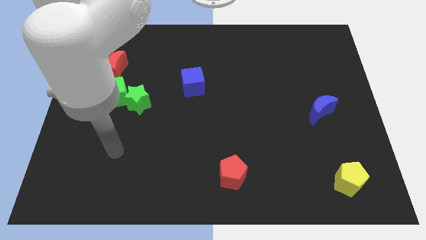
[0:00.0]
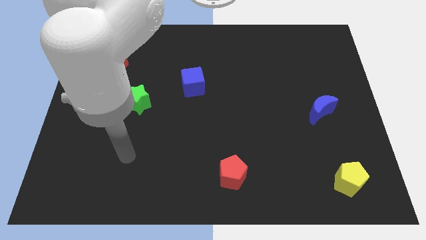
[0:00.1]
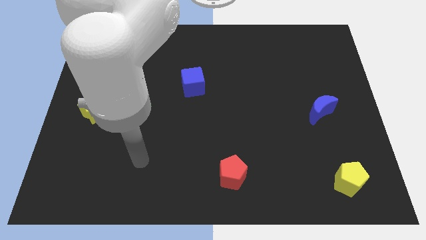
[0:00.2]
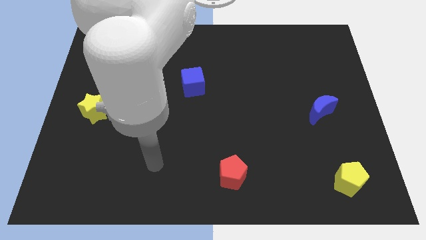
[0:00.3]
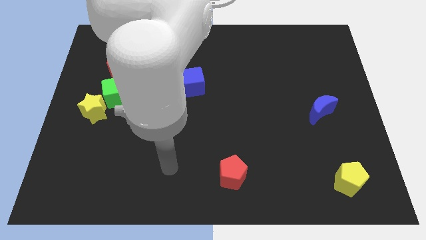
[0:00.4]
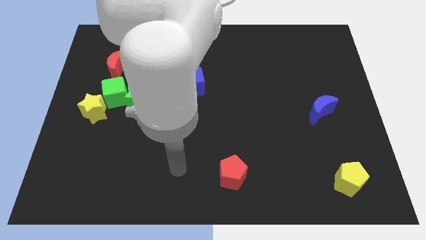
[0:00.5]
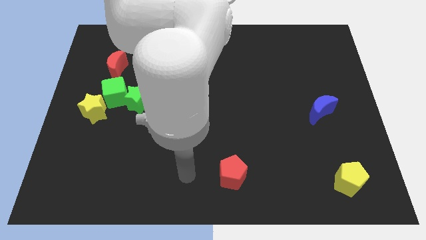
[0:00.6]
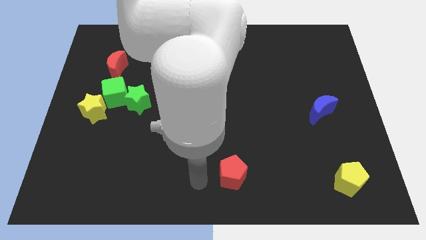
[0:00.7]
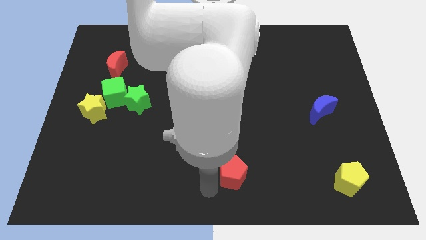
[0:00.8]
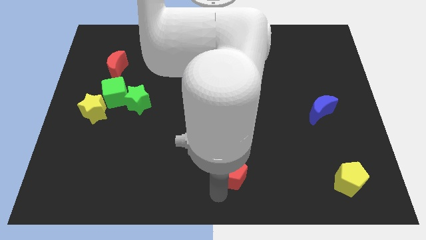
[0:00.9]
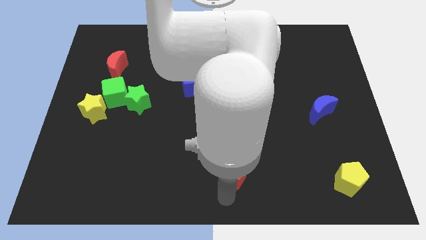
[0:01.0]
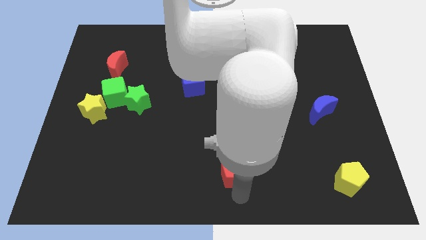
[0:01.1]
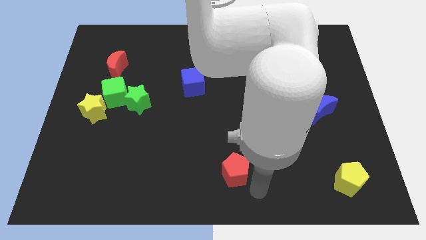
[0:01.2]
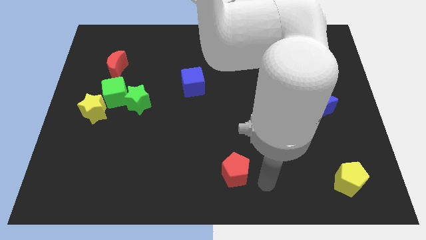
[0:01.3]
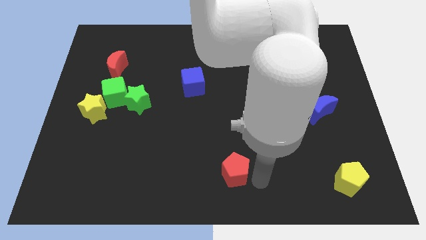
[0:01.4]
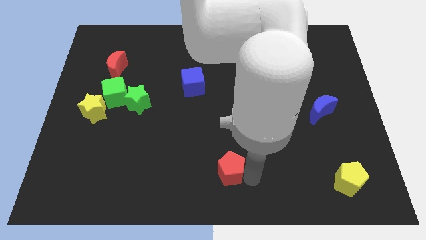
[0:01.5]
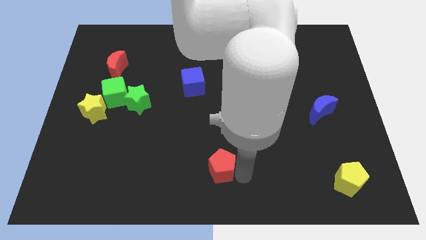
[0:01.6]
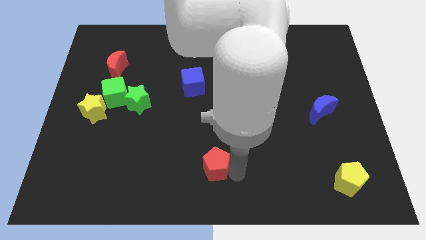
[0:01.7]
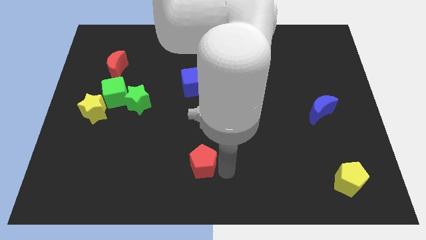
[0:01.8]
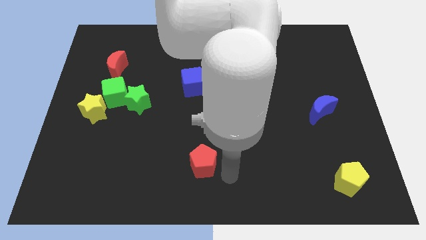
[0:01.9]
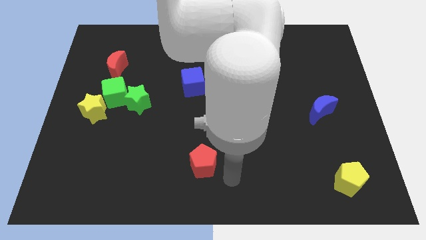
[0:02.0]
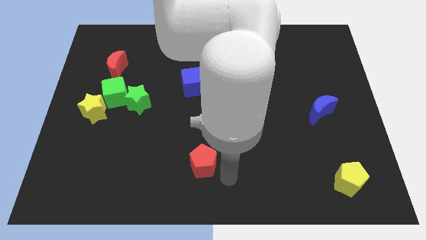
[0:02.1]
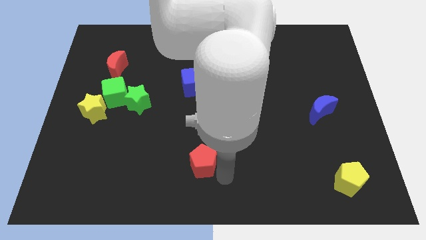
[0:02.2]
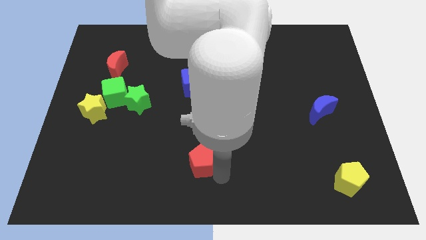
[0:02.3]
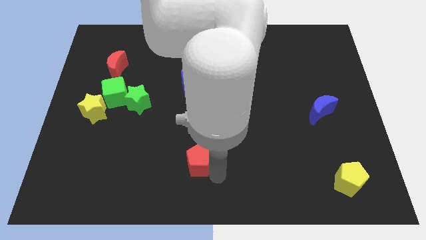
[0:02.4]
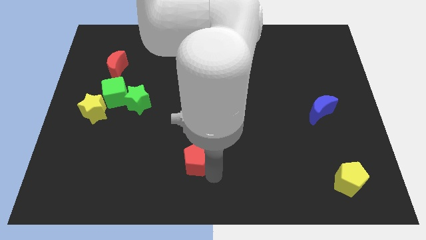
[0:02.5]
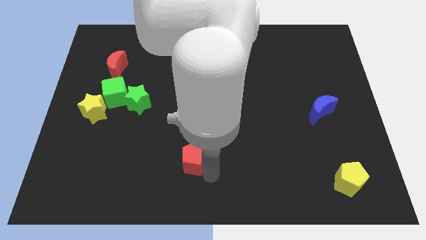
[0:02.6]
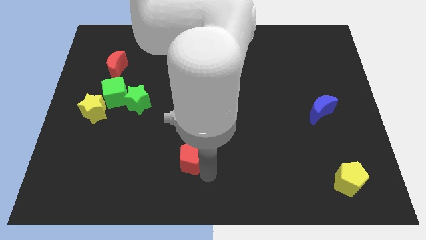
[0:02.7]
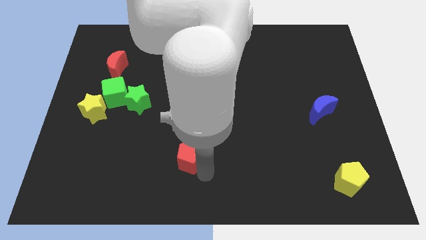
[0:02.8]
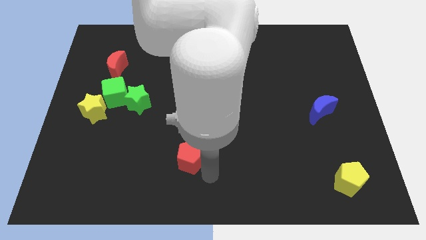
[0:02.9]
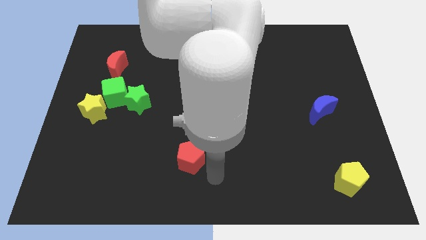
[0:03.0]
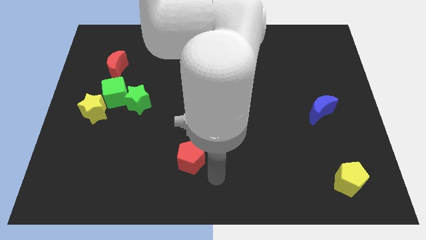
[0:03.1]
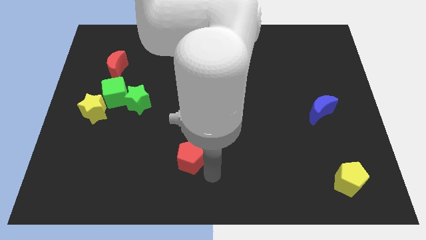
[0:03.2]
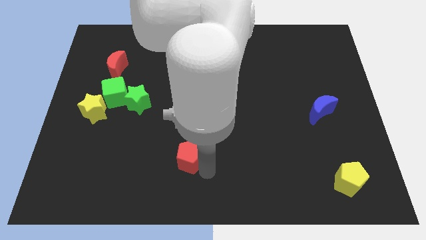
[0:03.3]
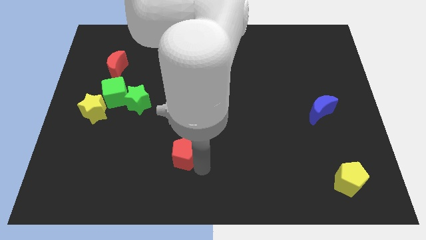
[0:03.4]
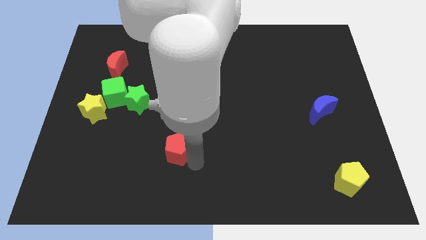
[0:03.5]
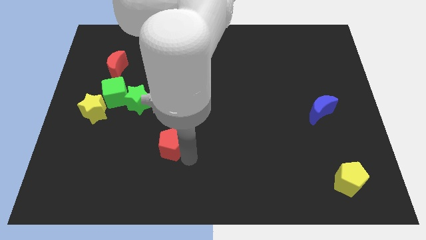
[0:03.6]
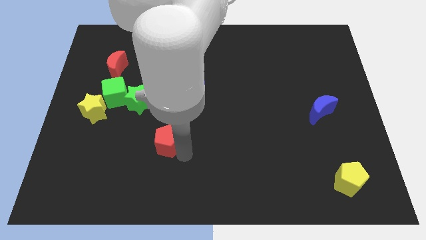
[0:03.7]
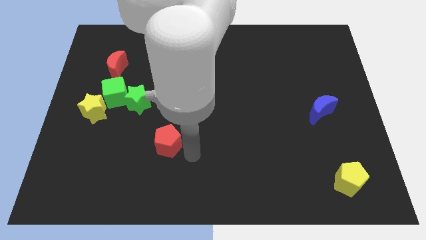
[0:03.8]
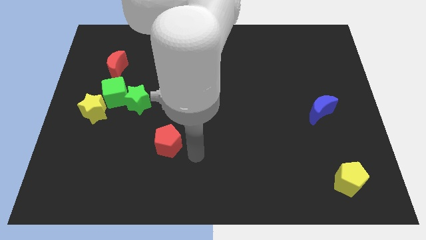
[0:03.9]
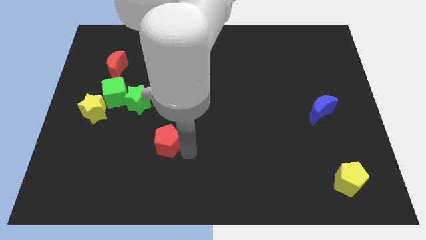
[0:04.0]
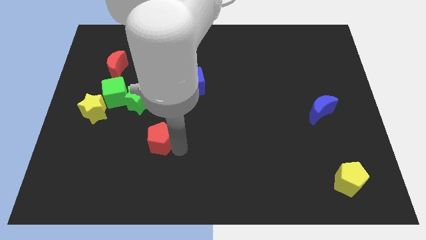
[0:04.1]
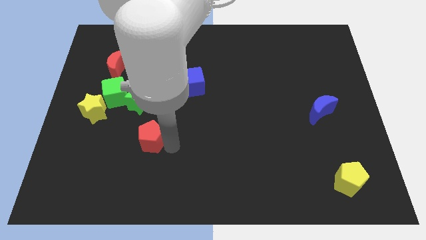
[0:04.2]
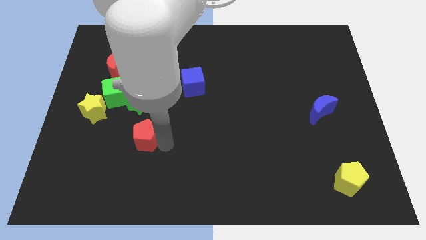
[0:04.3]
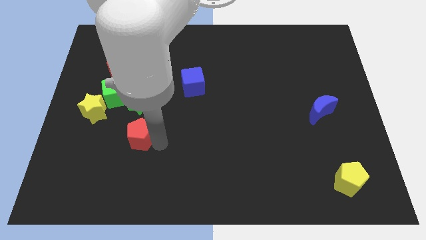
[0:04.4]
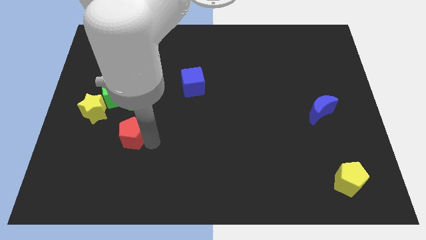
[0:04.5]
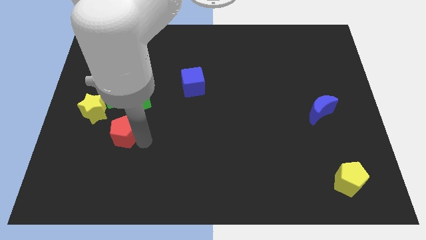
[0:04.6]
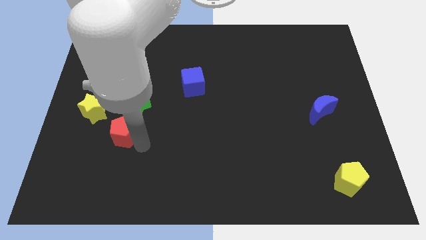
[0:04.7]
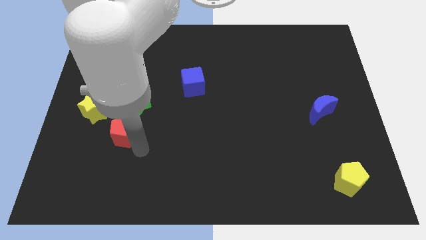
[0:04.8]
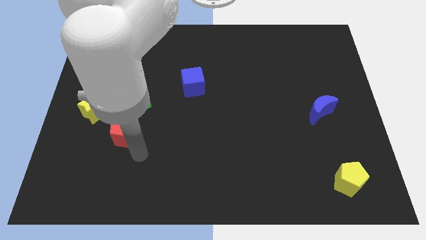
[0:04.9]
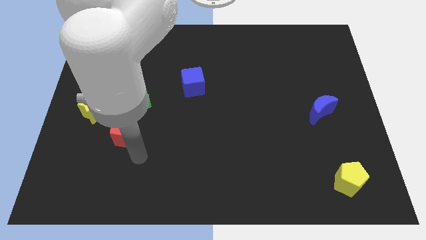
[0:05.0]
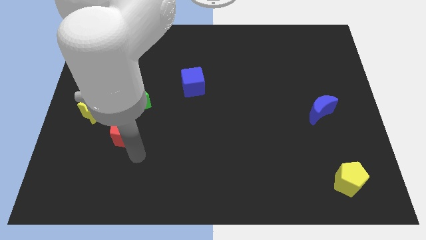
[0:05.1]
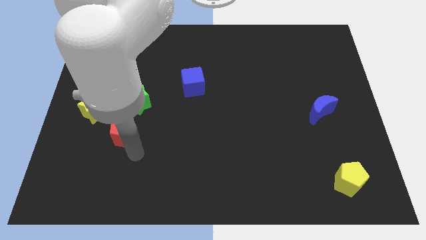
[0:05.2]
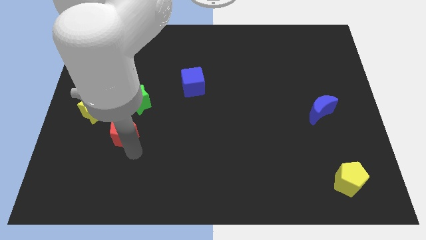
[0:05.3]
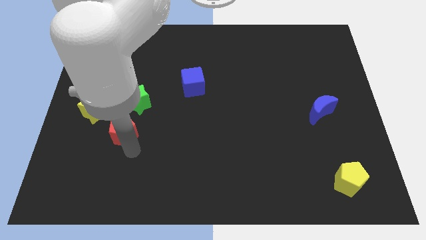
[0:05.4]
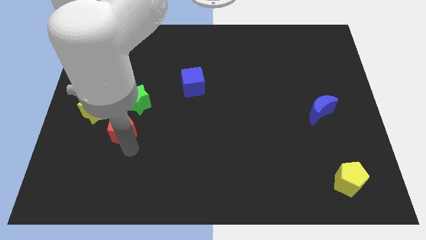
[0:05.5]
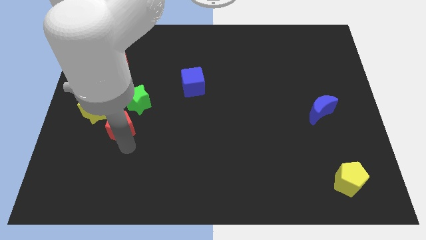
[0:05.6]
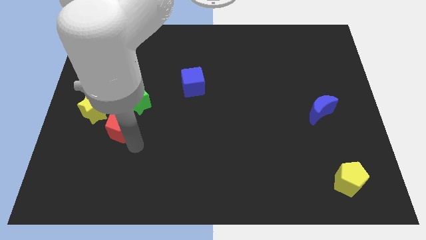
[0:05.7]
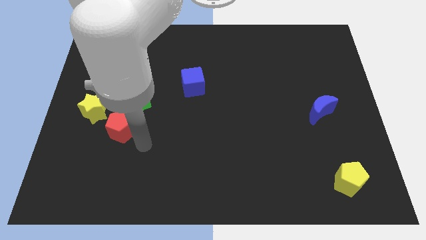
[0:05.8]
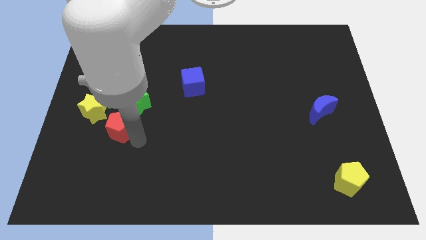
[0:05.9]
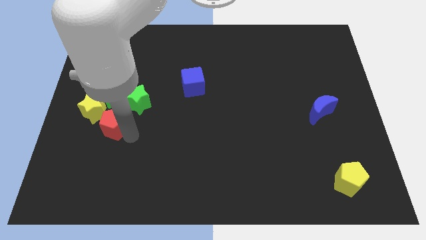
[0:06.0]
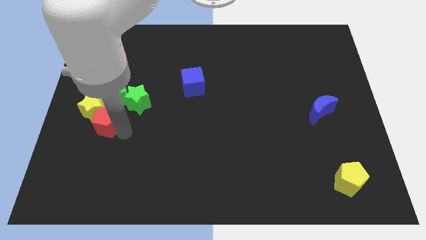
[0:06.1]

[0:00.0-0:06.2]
push the red pentagon close to the yellow star

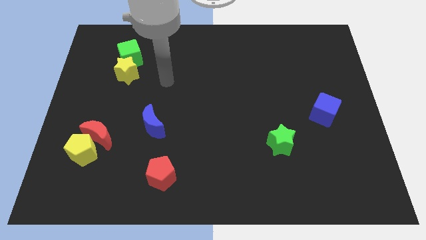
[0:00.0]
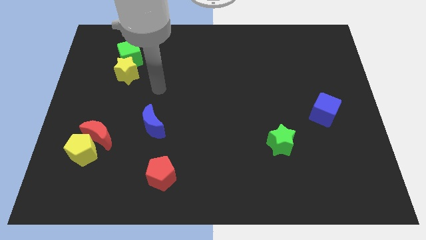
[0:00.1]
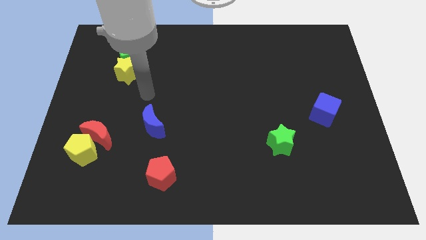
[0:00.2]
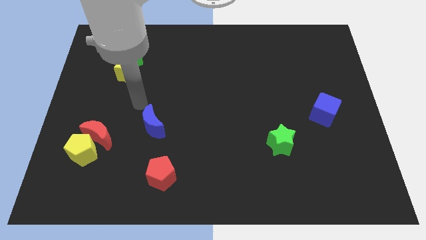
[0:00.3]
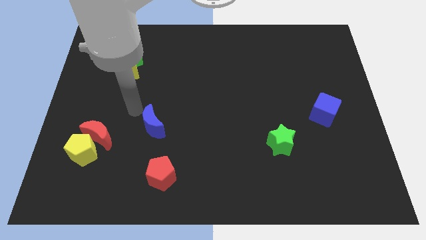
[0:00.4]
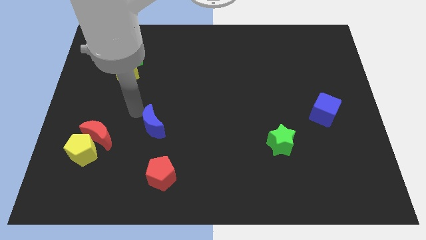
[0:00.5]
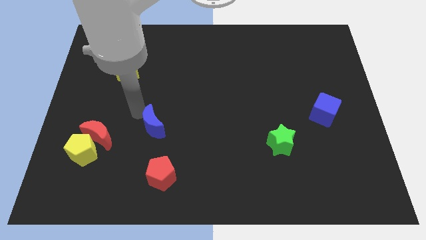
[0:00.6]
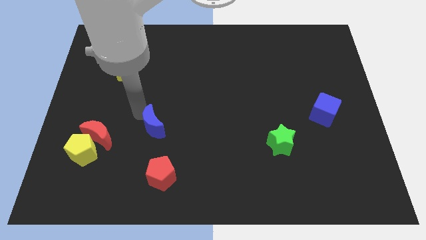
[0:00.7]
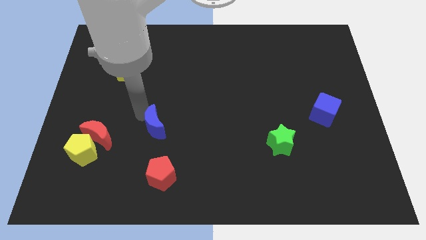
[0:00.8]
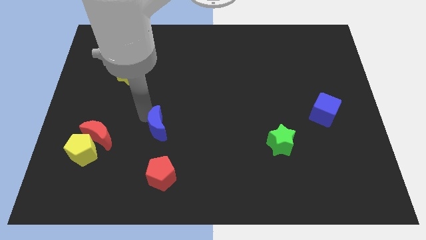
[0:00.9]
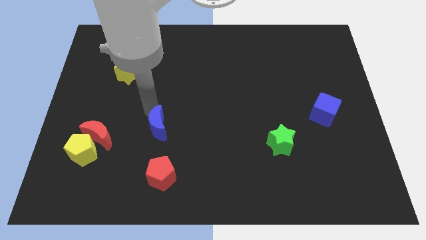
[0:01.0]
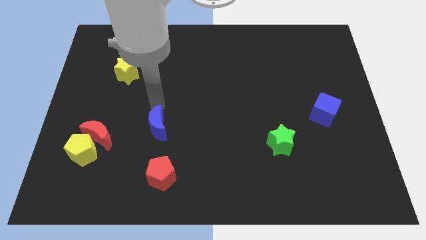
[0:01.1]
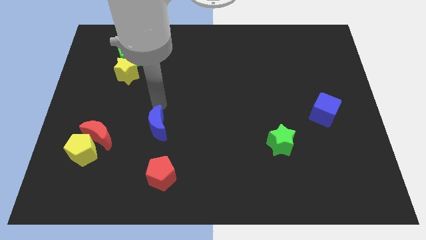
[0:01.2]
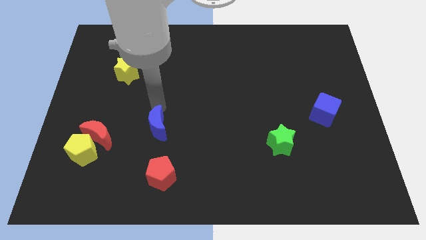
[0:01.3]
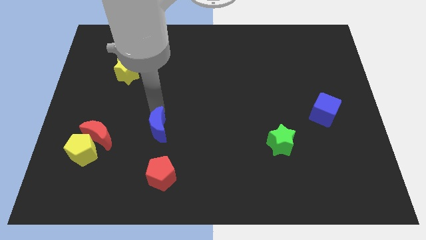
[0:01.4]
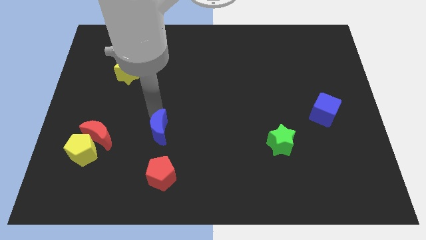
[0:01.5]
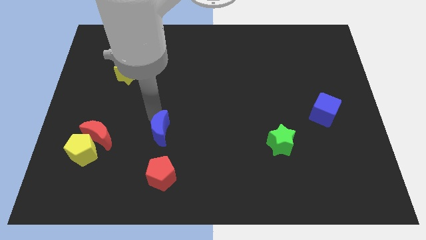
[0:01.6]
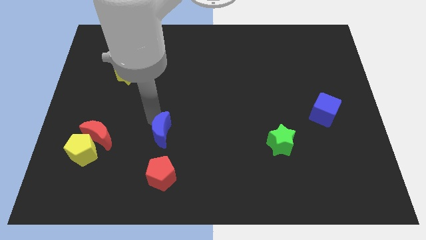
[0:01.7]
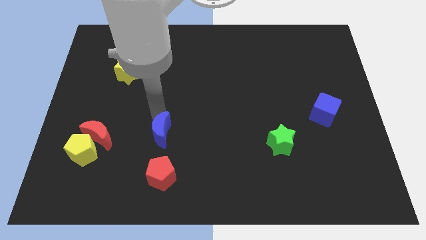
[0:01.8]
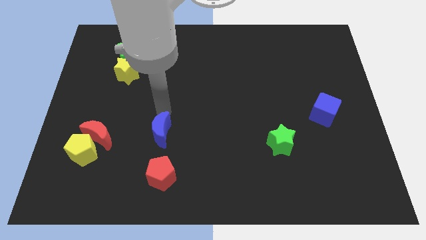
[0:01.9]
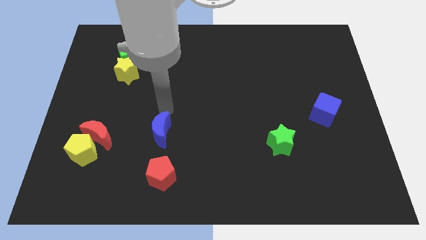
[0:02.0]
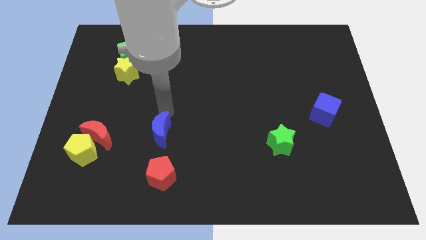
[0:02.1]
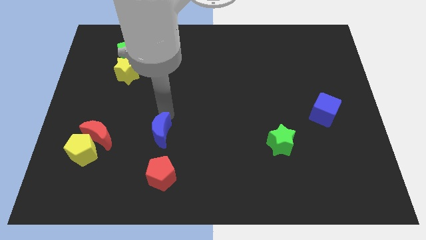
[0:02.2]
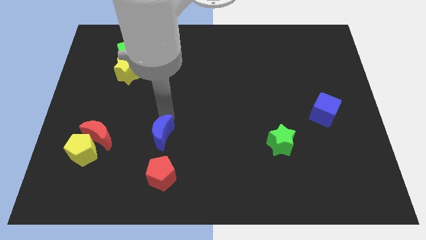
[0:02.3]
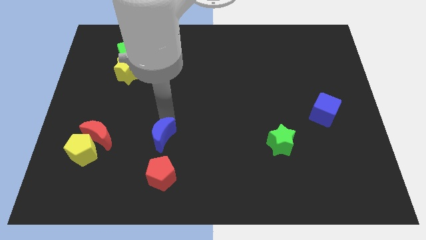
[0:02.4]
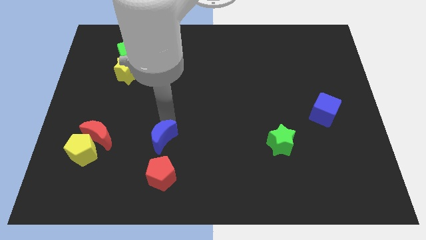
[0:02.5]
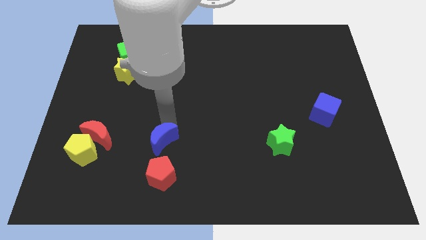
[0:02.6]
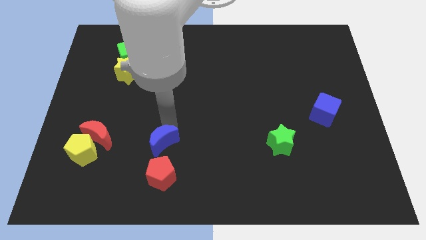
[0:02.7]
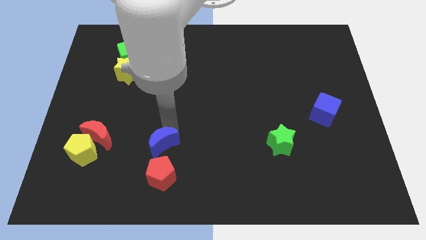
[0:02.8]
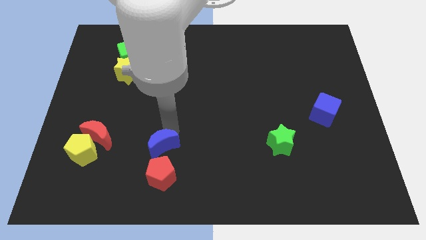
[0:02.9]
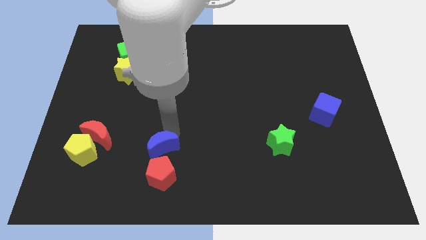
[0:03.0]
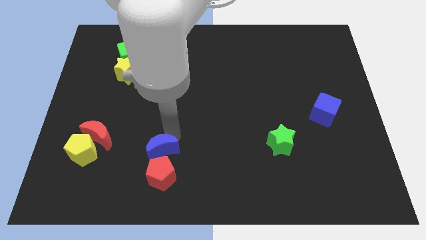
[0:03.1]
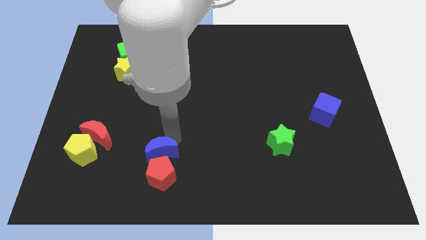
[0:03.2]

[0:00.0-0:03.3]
put the blue moon towards the red pentagon
